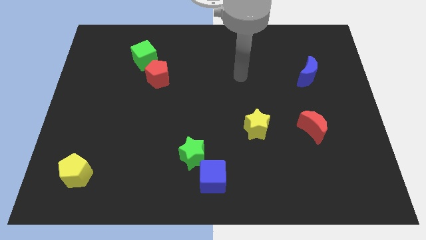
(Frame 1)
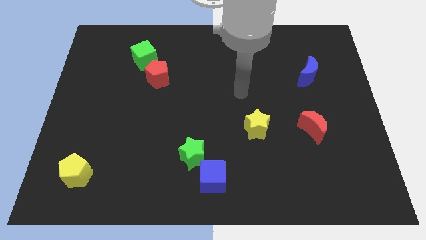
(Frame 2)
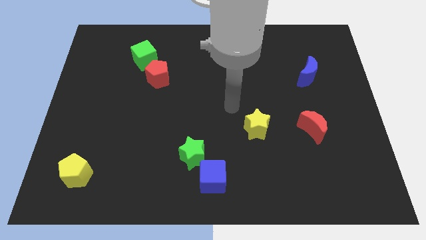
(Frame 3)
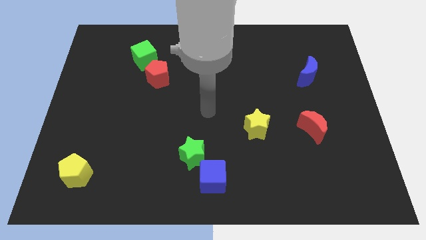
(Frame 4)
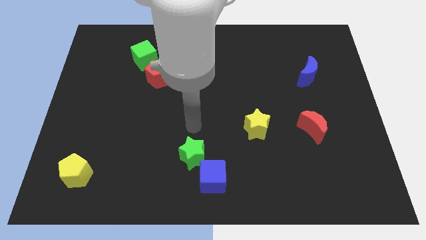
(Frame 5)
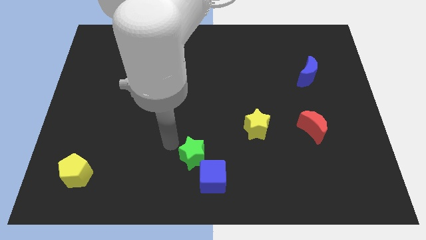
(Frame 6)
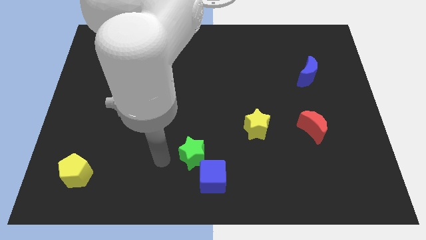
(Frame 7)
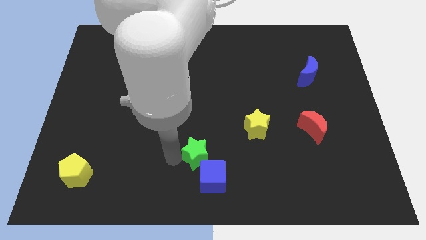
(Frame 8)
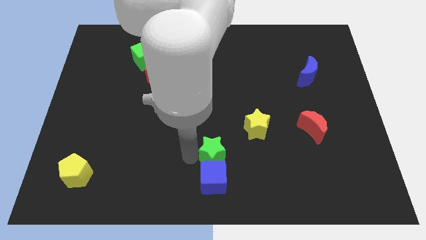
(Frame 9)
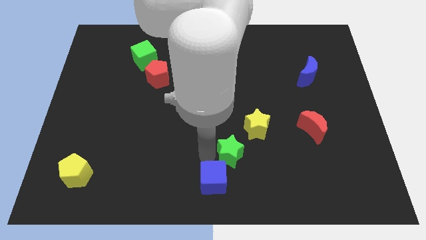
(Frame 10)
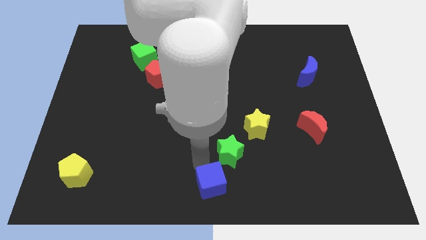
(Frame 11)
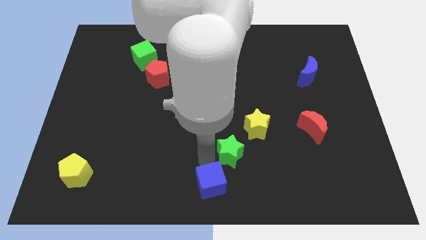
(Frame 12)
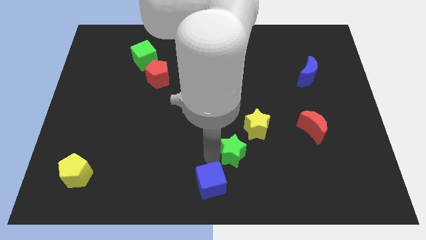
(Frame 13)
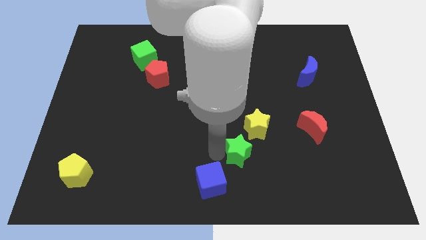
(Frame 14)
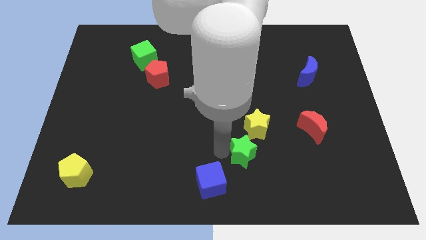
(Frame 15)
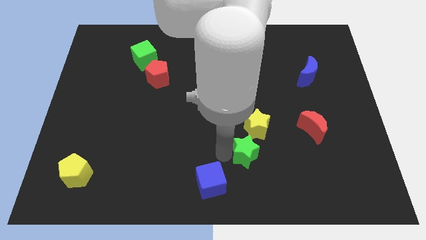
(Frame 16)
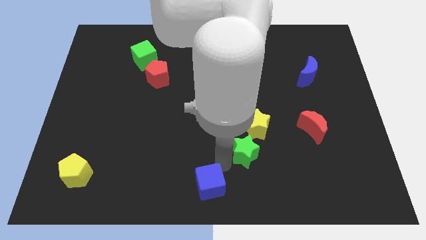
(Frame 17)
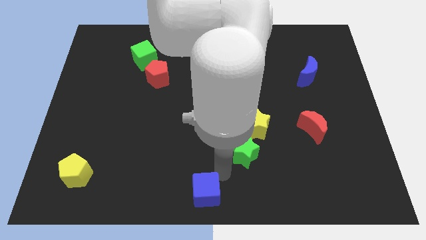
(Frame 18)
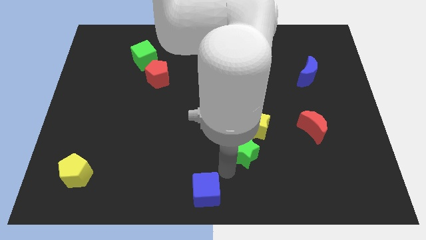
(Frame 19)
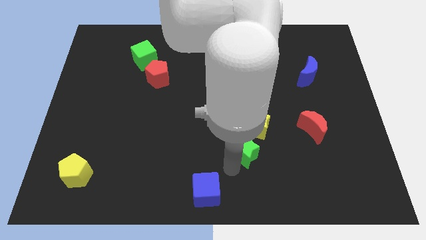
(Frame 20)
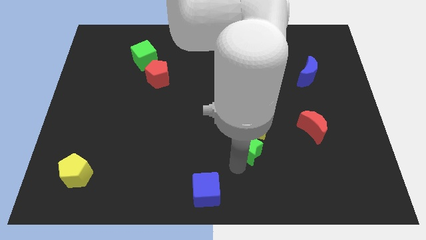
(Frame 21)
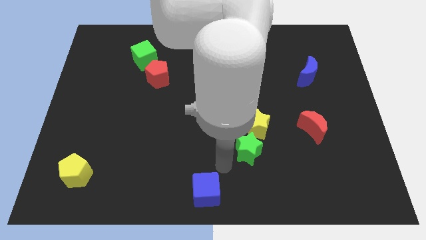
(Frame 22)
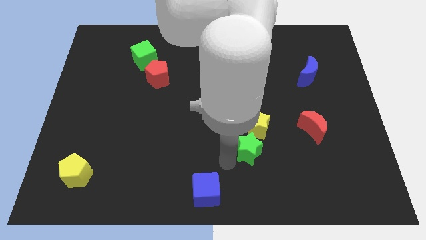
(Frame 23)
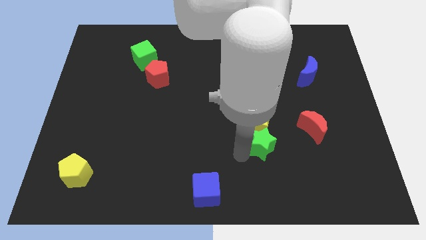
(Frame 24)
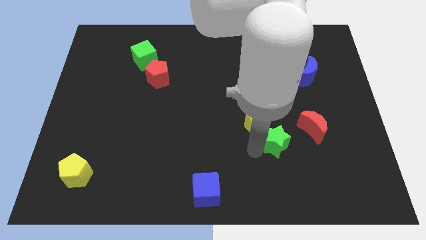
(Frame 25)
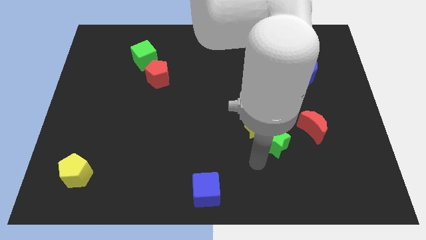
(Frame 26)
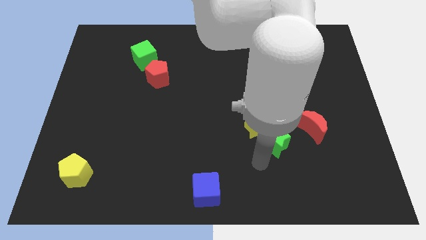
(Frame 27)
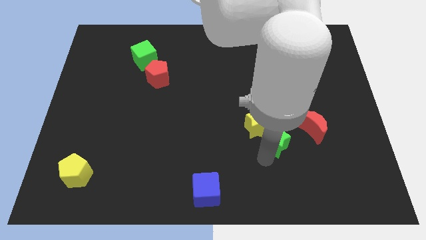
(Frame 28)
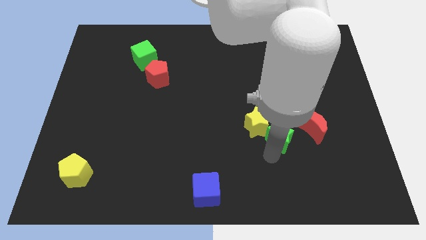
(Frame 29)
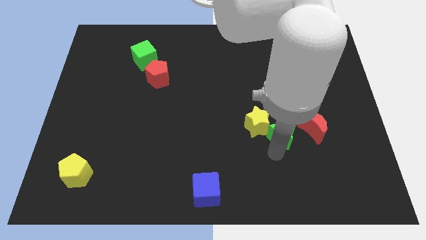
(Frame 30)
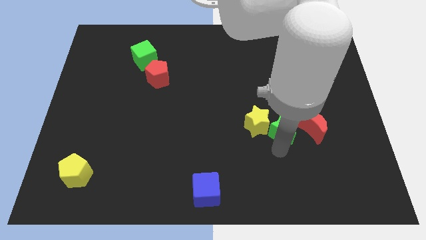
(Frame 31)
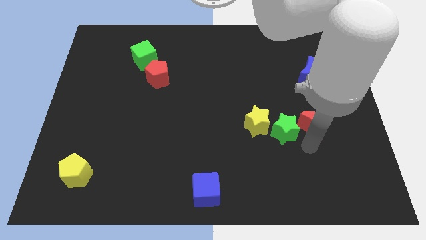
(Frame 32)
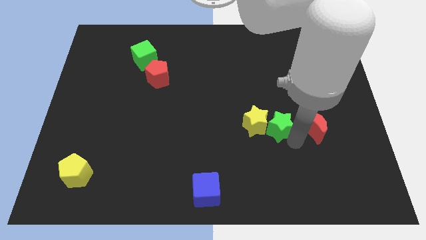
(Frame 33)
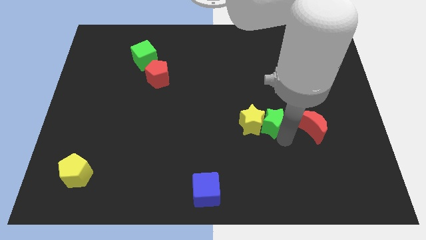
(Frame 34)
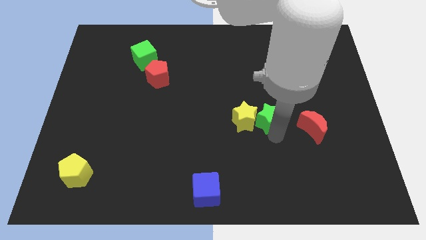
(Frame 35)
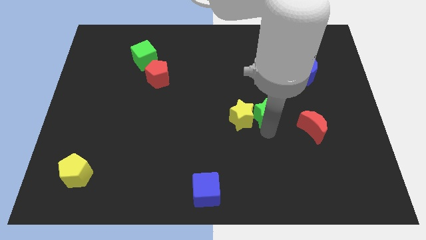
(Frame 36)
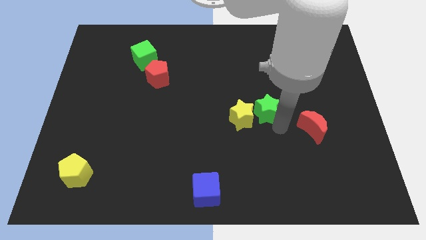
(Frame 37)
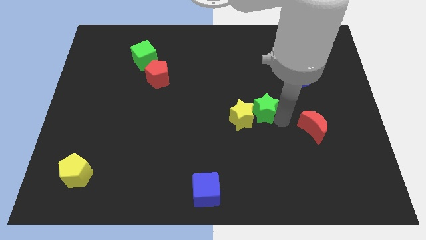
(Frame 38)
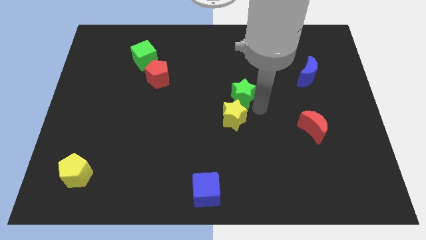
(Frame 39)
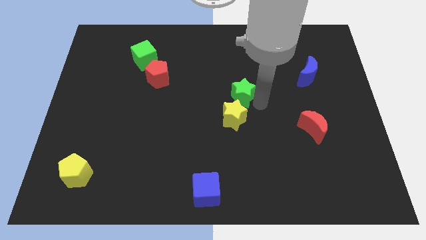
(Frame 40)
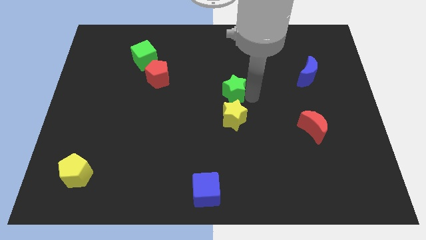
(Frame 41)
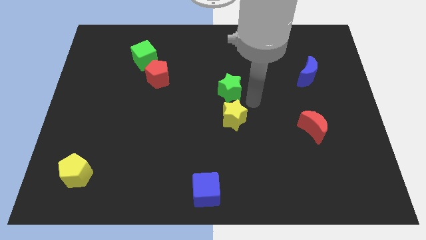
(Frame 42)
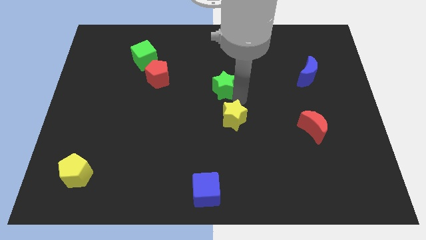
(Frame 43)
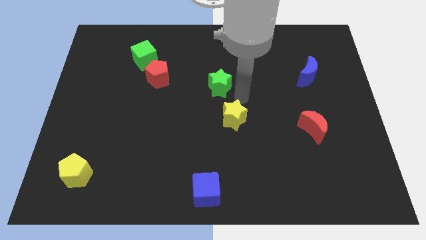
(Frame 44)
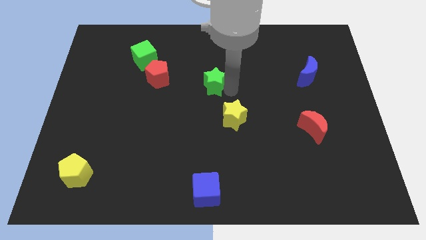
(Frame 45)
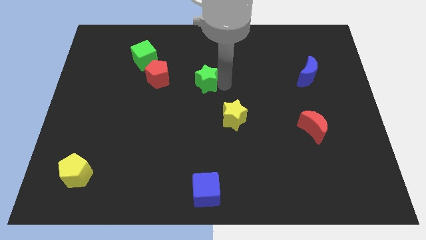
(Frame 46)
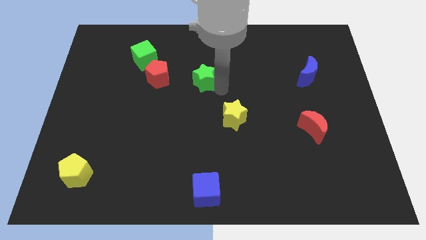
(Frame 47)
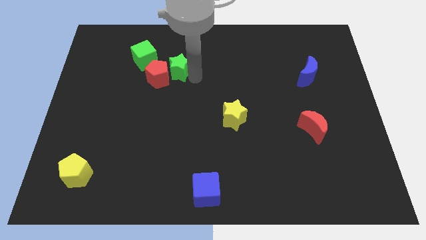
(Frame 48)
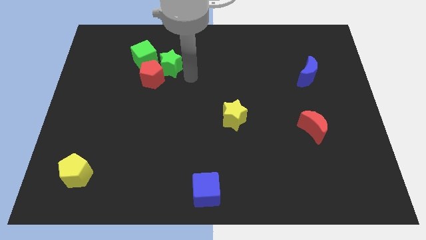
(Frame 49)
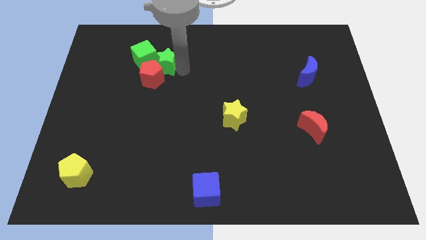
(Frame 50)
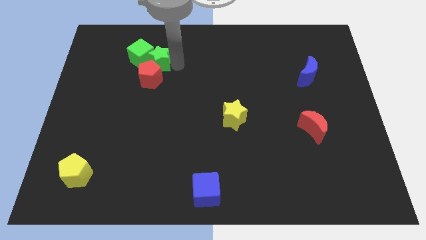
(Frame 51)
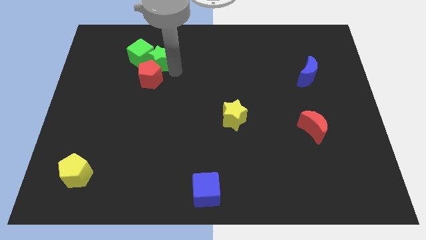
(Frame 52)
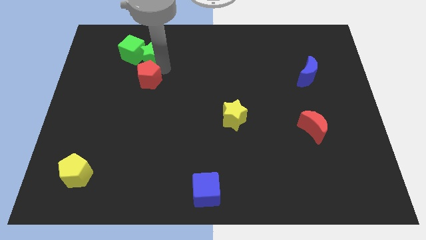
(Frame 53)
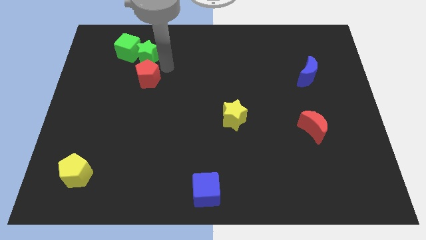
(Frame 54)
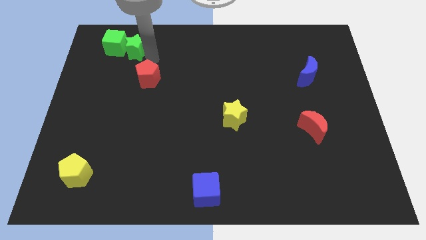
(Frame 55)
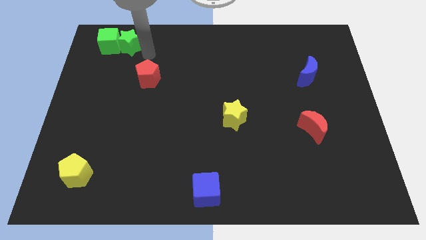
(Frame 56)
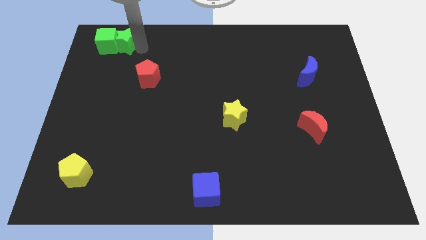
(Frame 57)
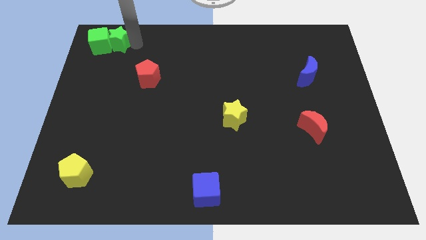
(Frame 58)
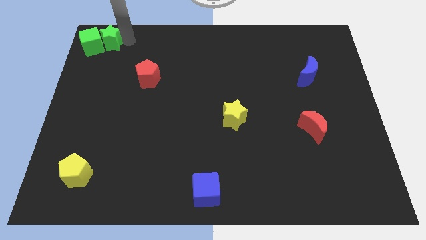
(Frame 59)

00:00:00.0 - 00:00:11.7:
move the green star to the top left corner

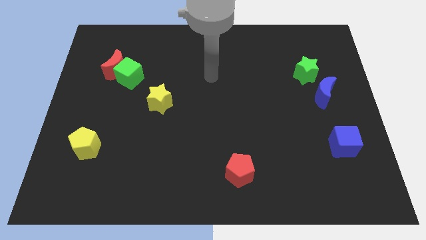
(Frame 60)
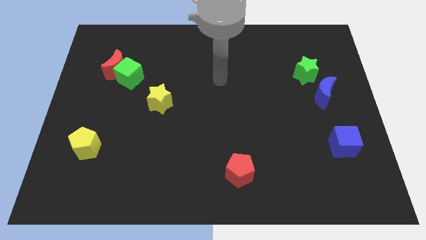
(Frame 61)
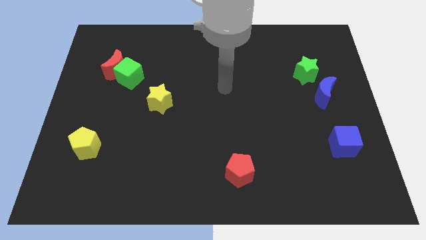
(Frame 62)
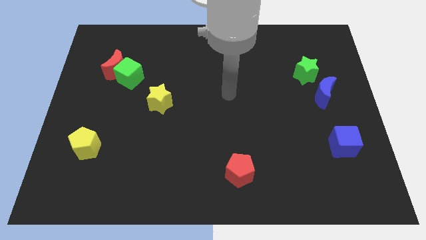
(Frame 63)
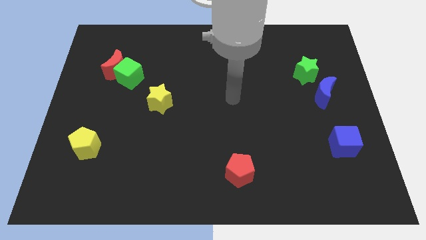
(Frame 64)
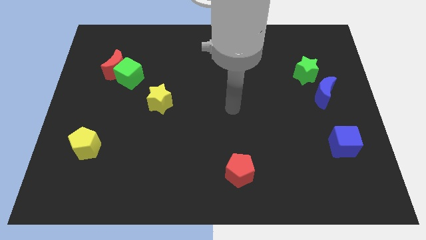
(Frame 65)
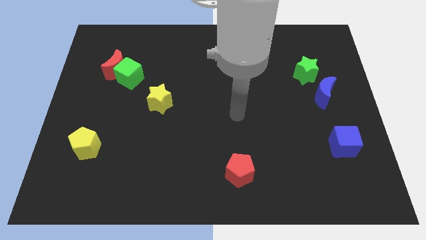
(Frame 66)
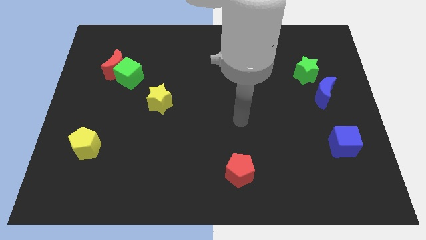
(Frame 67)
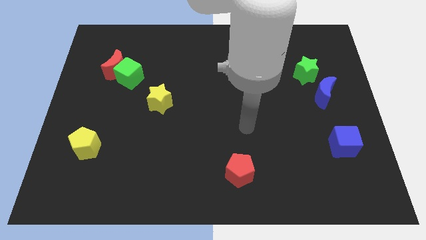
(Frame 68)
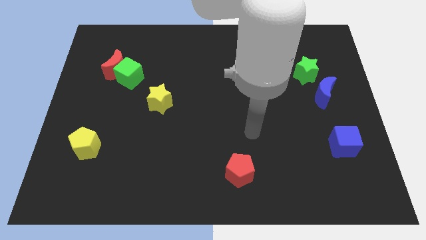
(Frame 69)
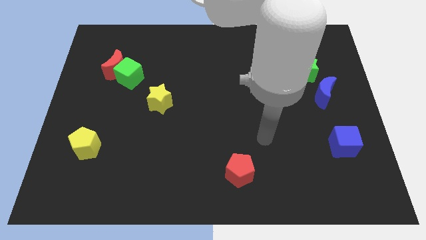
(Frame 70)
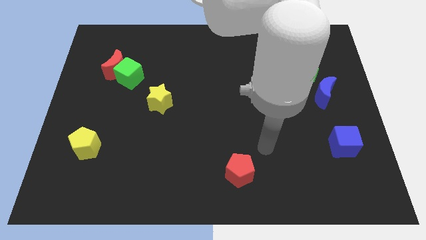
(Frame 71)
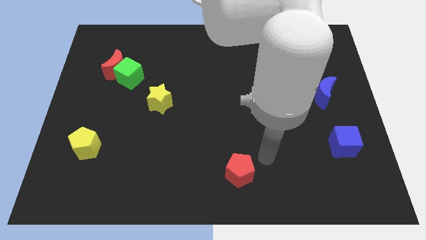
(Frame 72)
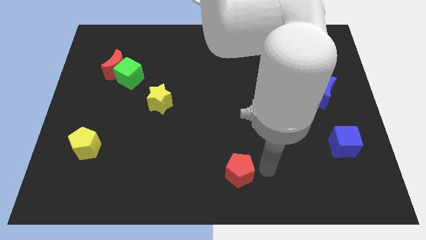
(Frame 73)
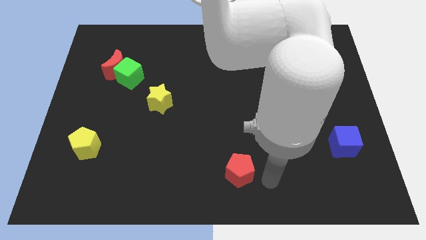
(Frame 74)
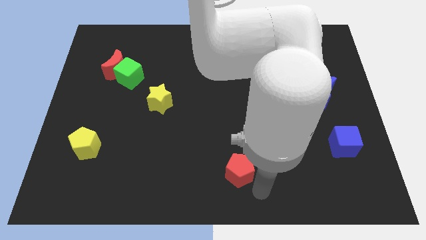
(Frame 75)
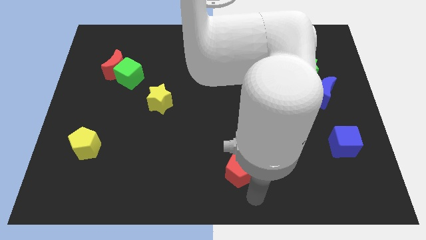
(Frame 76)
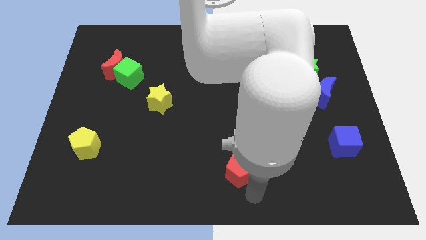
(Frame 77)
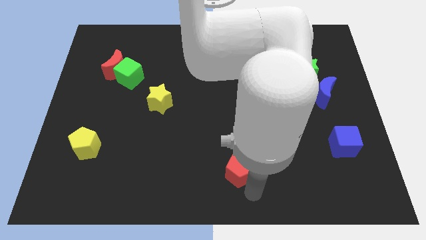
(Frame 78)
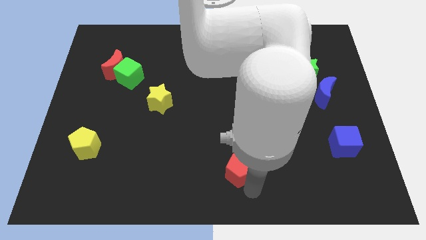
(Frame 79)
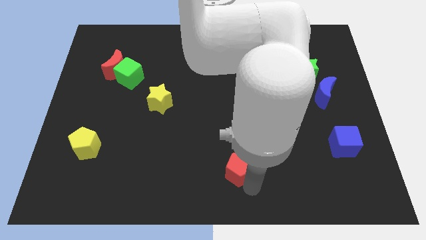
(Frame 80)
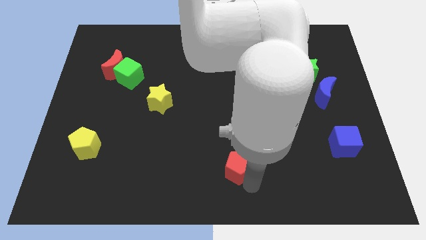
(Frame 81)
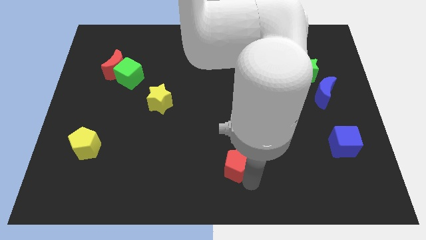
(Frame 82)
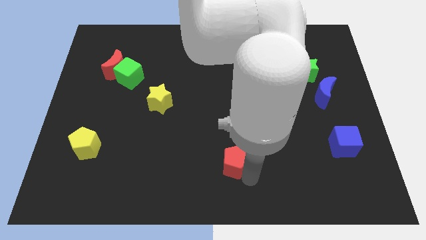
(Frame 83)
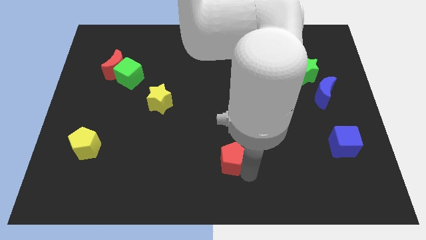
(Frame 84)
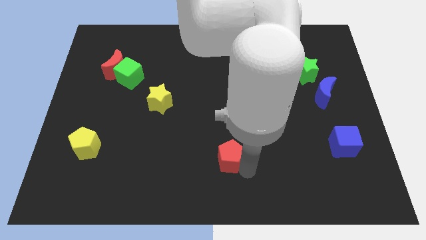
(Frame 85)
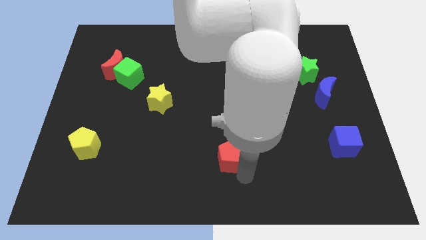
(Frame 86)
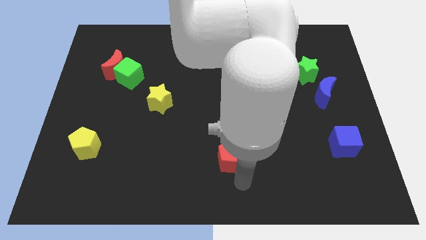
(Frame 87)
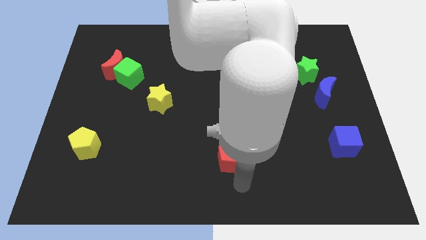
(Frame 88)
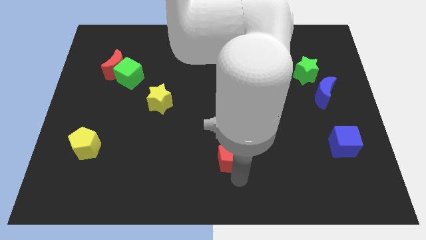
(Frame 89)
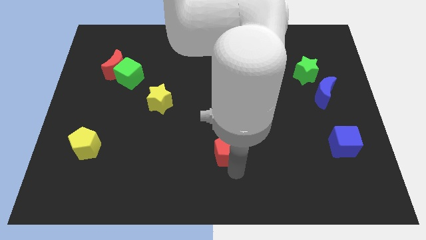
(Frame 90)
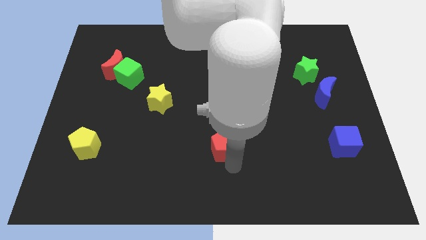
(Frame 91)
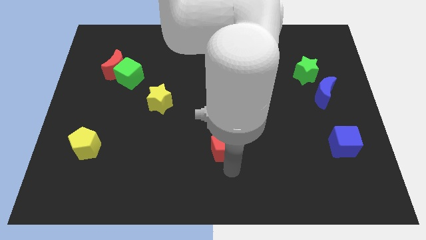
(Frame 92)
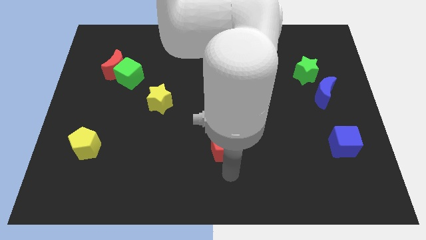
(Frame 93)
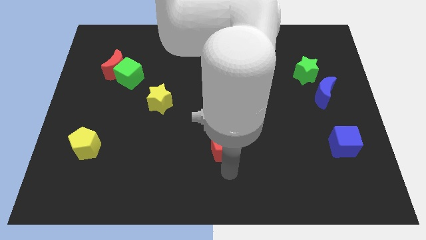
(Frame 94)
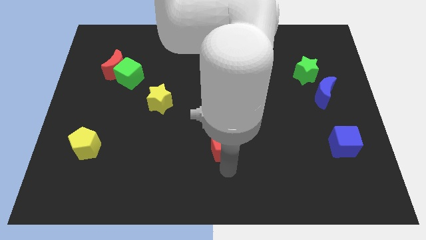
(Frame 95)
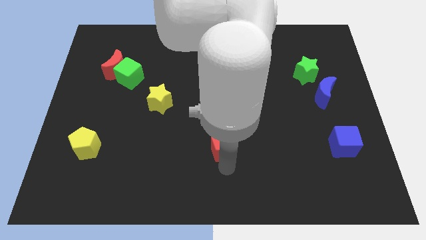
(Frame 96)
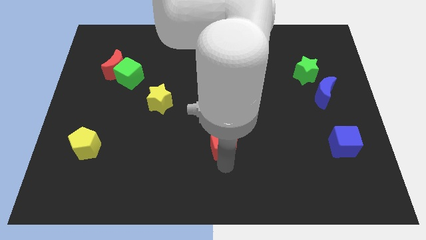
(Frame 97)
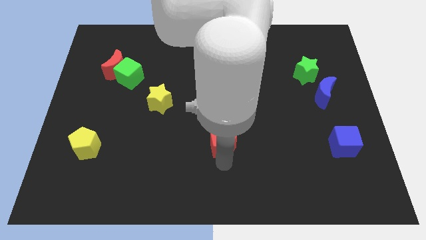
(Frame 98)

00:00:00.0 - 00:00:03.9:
move the red pentagon to the center
